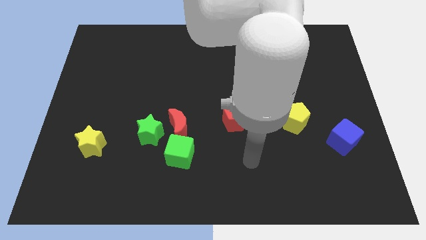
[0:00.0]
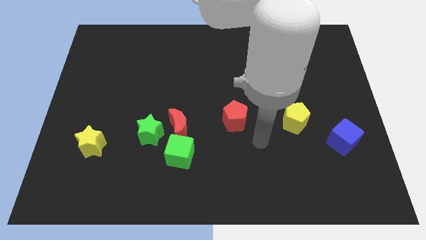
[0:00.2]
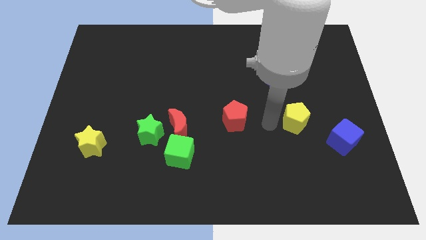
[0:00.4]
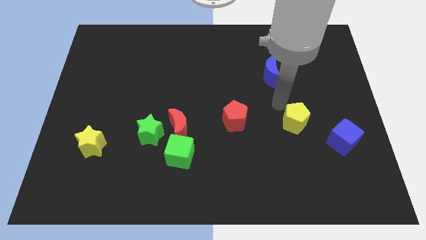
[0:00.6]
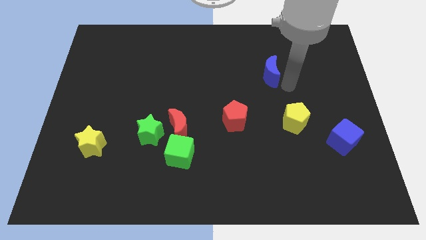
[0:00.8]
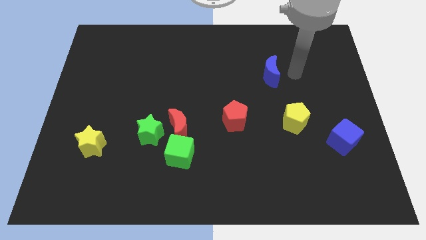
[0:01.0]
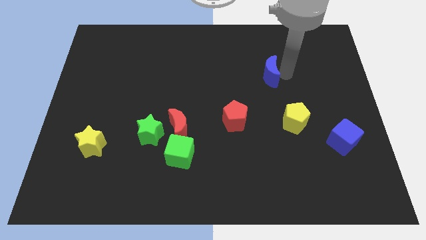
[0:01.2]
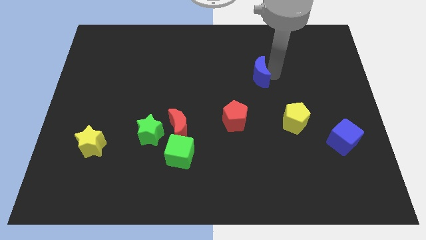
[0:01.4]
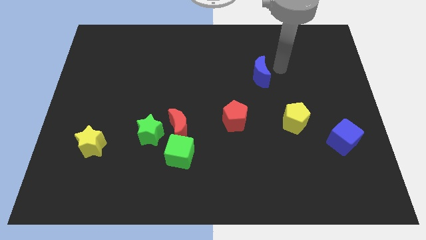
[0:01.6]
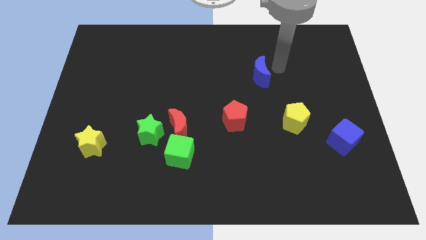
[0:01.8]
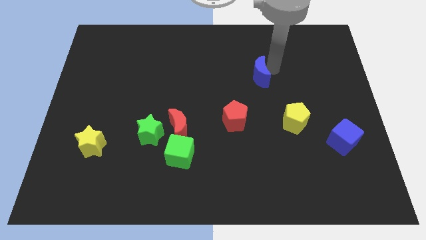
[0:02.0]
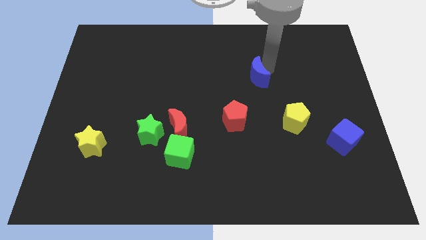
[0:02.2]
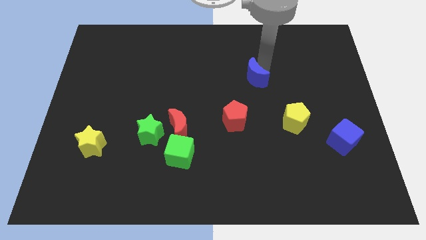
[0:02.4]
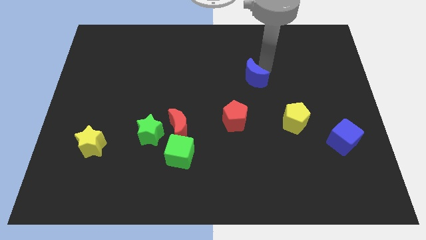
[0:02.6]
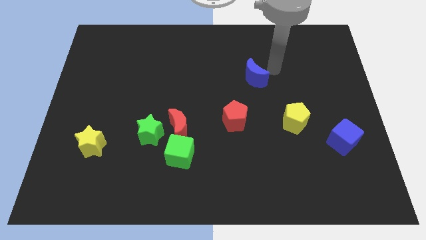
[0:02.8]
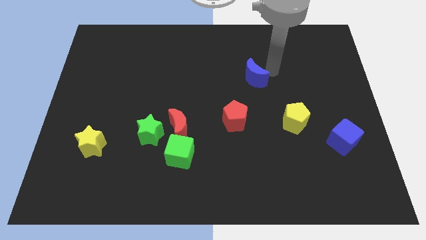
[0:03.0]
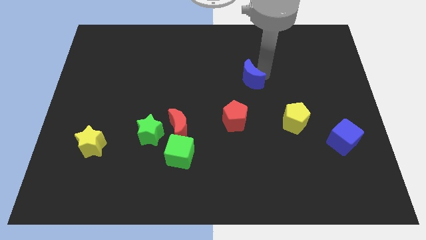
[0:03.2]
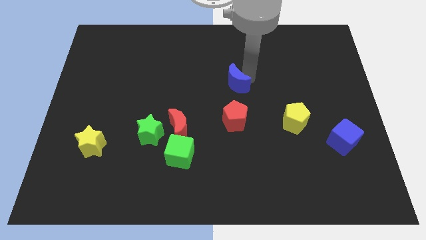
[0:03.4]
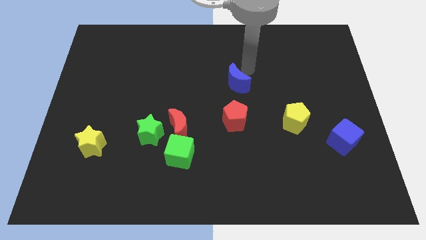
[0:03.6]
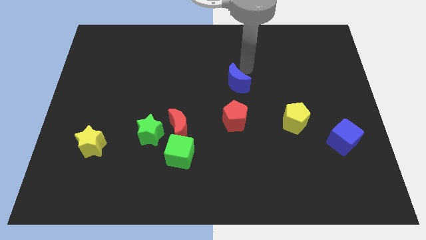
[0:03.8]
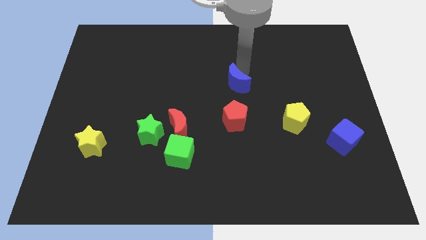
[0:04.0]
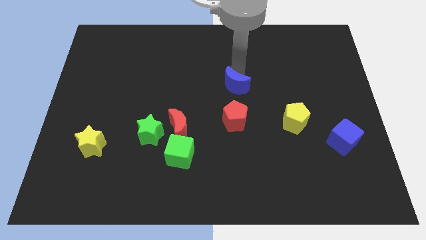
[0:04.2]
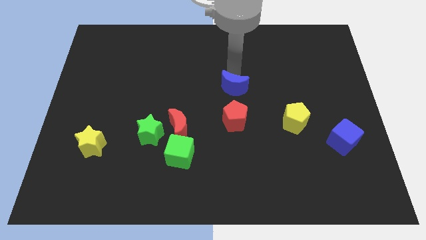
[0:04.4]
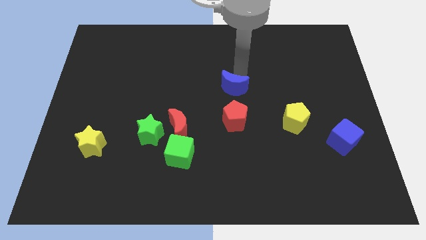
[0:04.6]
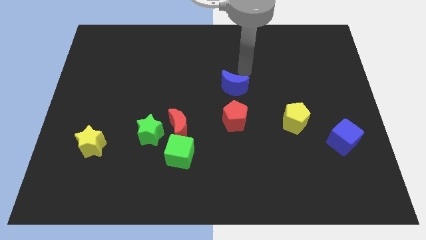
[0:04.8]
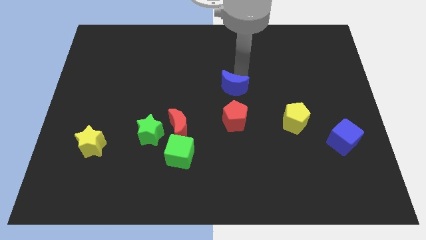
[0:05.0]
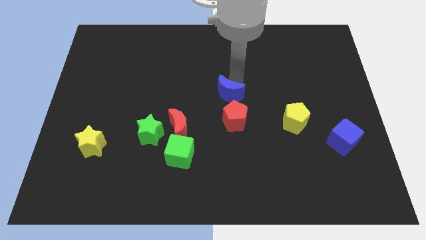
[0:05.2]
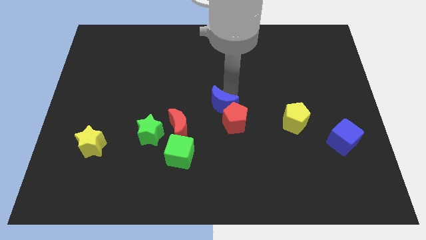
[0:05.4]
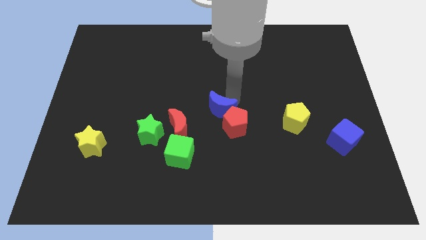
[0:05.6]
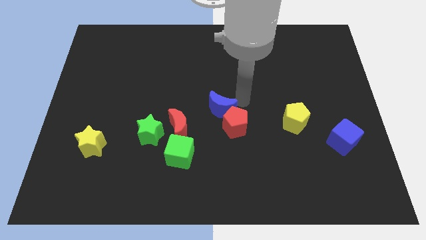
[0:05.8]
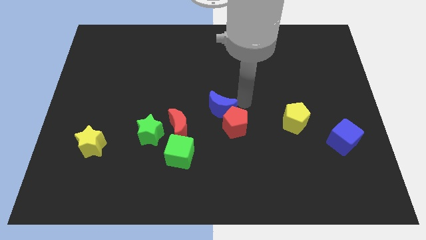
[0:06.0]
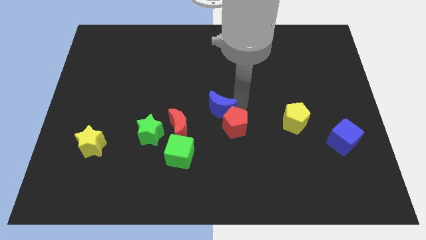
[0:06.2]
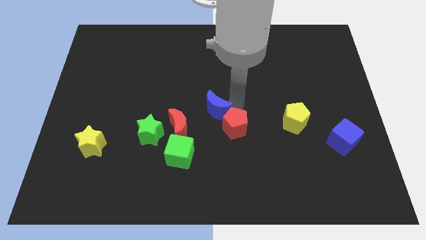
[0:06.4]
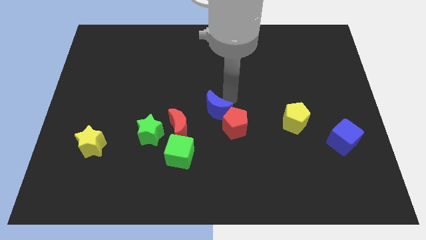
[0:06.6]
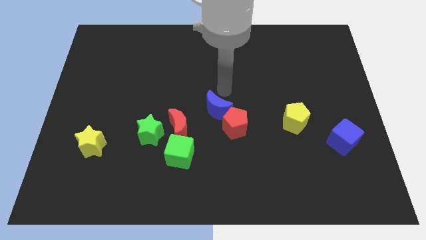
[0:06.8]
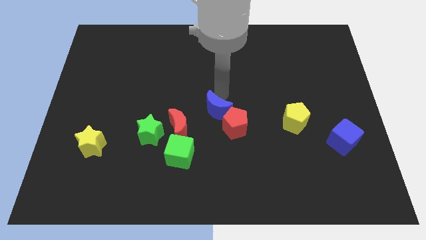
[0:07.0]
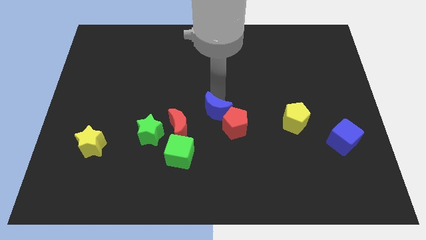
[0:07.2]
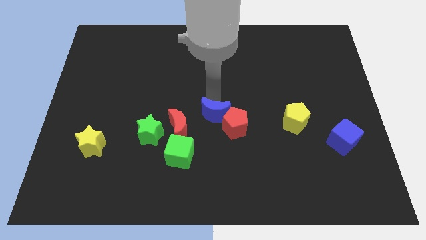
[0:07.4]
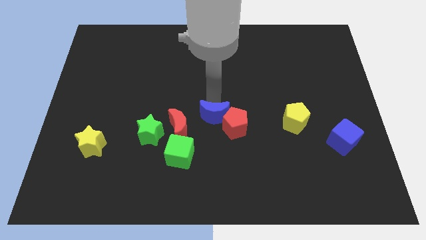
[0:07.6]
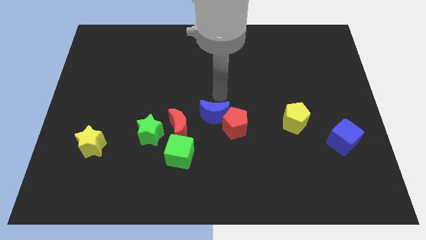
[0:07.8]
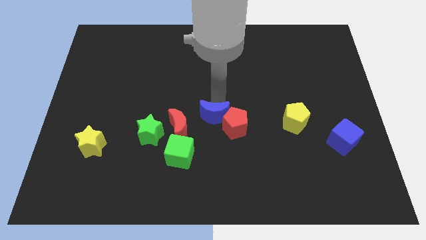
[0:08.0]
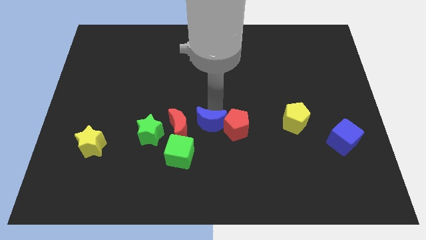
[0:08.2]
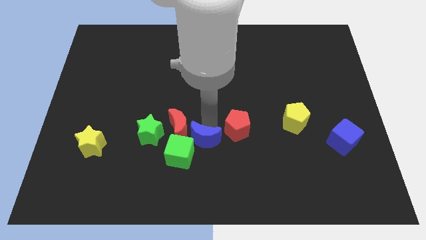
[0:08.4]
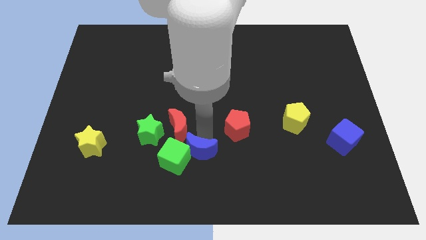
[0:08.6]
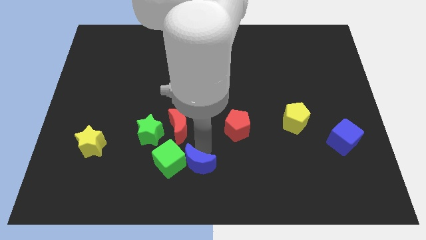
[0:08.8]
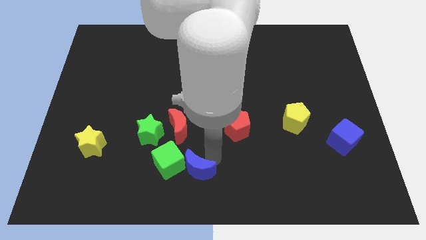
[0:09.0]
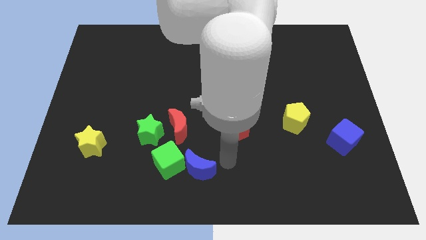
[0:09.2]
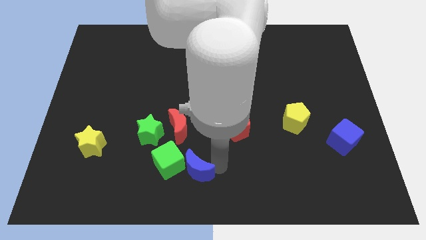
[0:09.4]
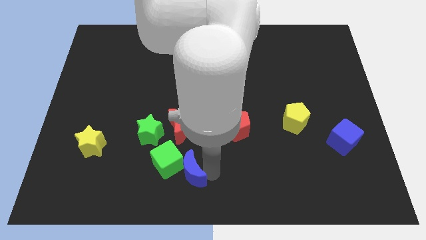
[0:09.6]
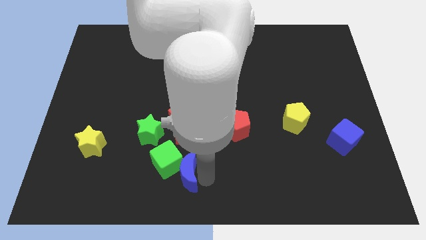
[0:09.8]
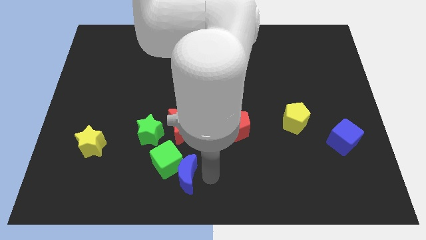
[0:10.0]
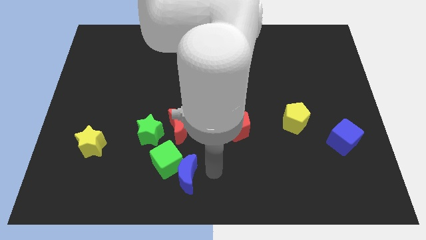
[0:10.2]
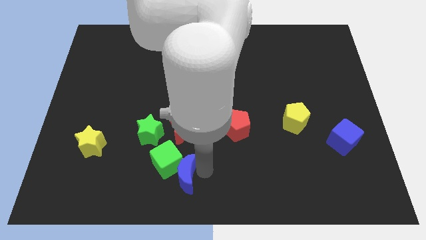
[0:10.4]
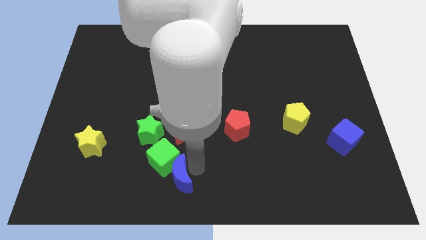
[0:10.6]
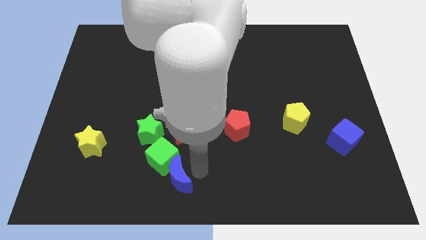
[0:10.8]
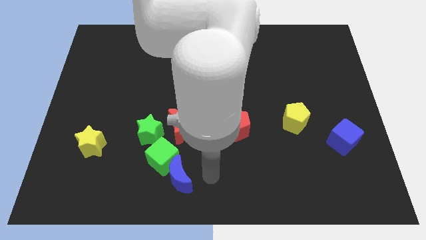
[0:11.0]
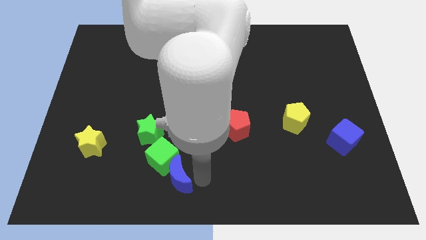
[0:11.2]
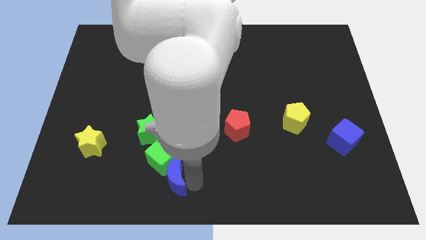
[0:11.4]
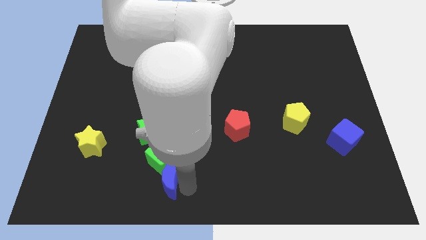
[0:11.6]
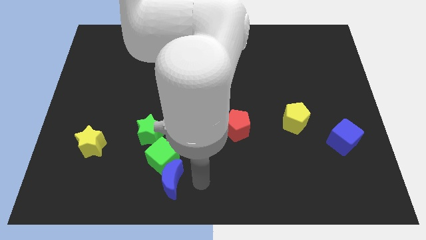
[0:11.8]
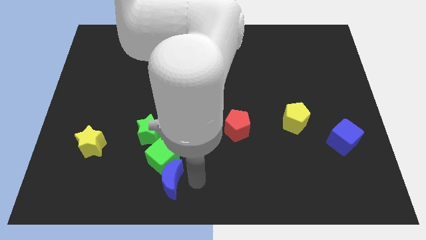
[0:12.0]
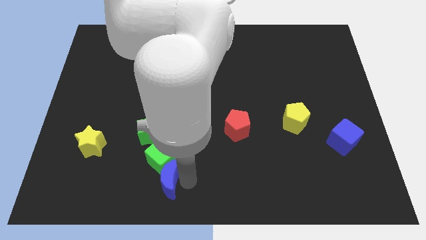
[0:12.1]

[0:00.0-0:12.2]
push the blue moon diagonally down and to the left of the green cube

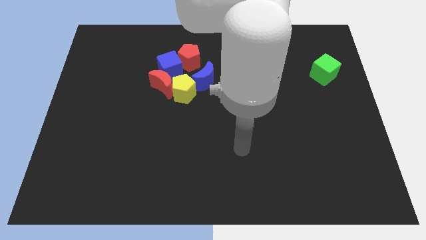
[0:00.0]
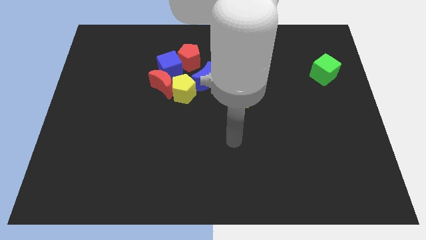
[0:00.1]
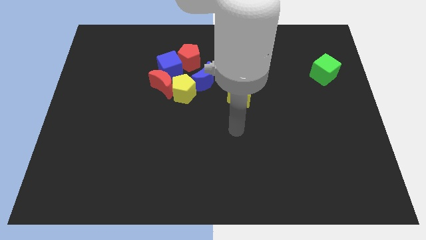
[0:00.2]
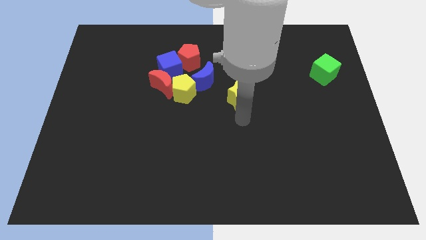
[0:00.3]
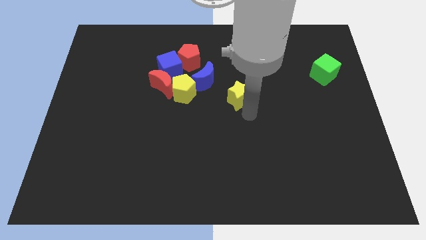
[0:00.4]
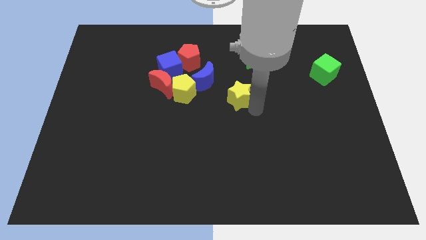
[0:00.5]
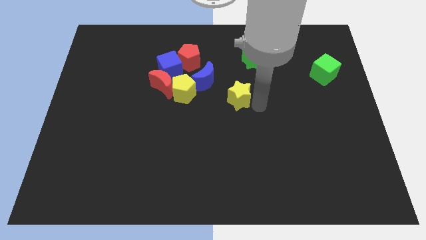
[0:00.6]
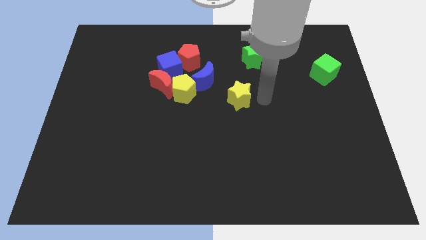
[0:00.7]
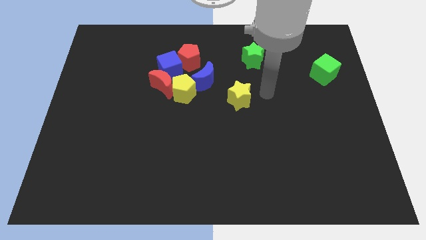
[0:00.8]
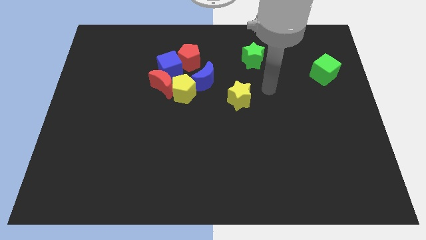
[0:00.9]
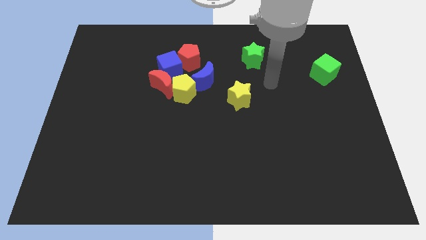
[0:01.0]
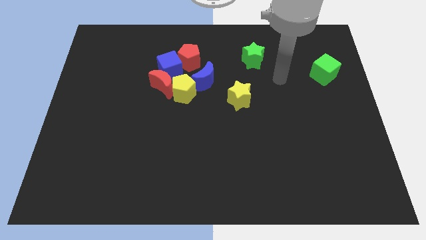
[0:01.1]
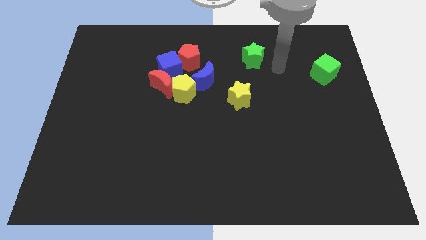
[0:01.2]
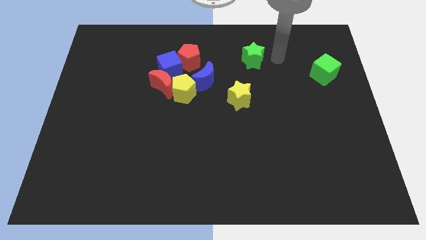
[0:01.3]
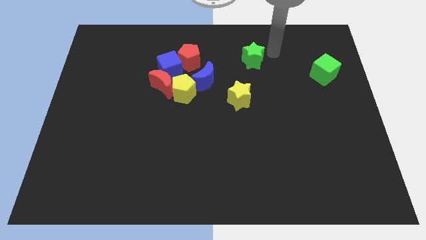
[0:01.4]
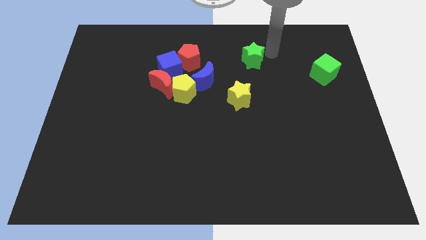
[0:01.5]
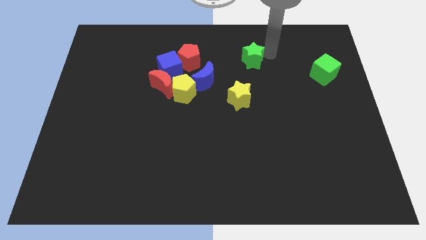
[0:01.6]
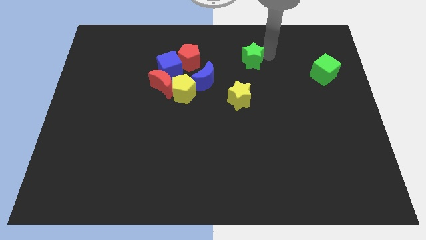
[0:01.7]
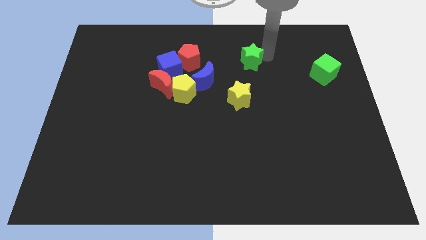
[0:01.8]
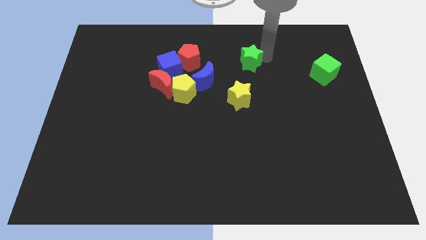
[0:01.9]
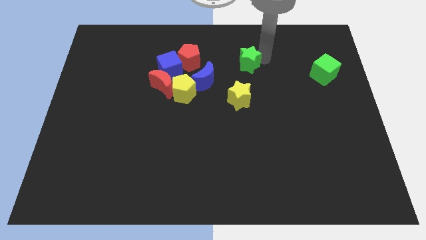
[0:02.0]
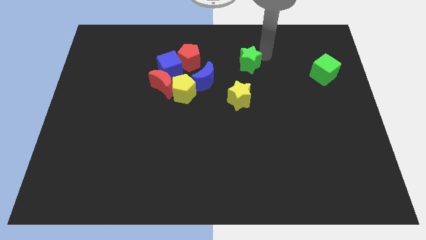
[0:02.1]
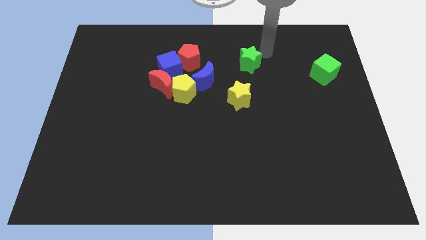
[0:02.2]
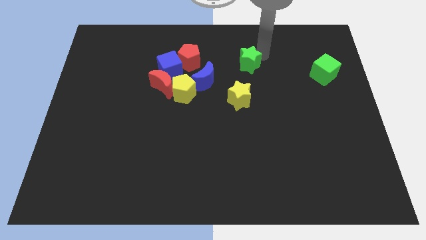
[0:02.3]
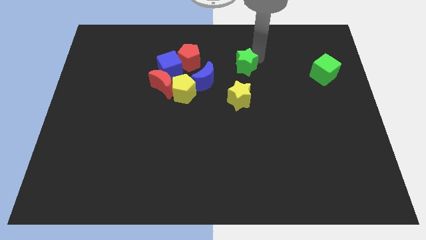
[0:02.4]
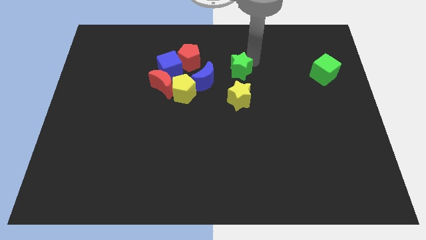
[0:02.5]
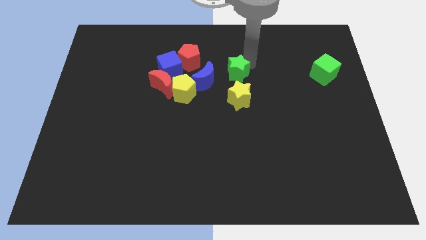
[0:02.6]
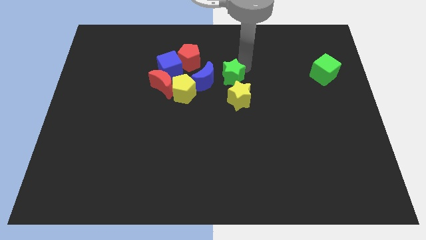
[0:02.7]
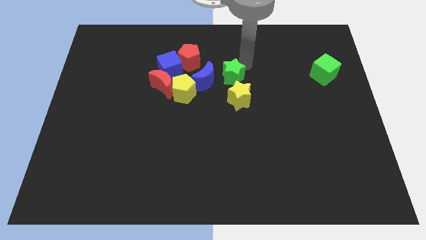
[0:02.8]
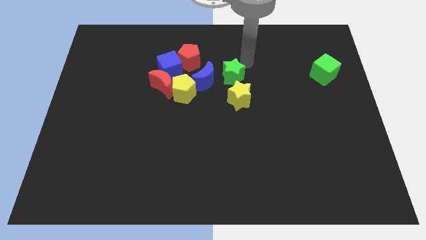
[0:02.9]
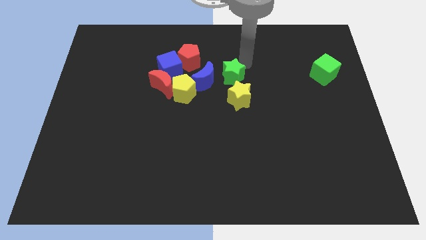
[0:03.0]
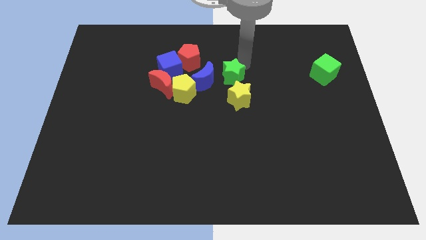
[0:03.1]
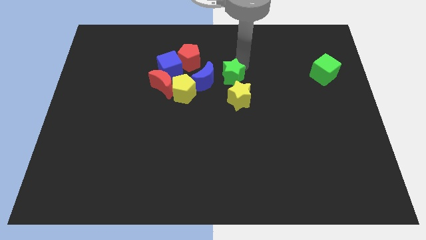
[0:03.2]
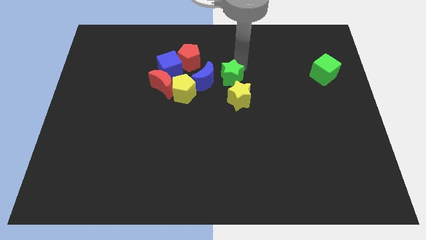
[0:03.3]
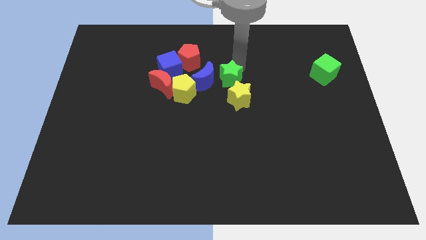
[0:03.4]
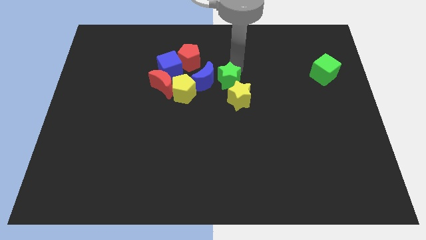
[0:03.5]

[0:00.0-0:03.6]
slide the green star right of the red moon
